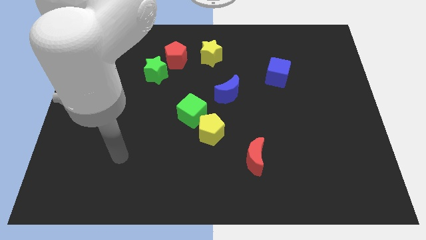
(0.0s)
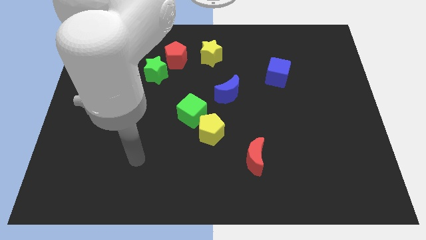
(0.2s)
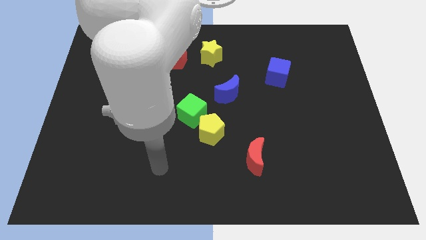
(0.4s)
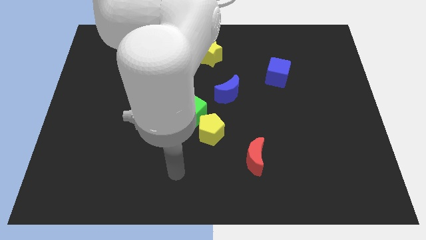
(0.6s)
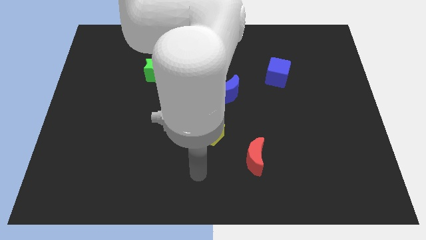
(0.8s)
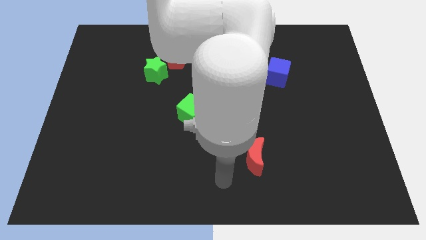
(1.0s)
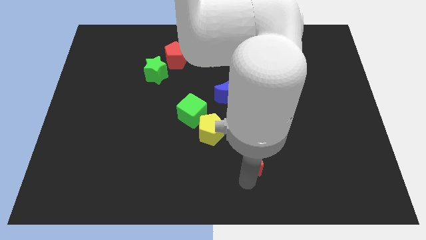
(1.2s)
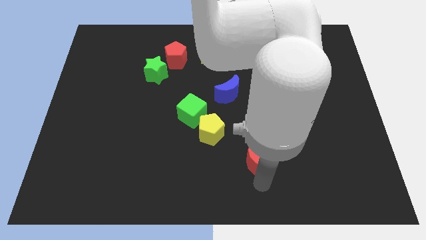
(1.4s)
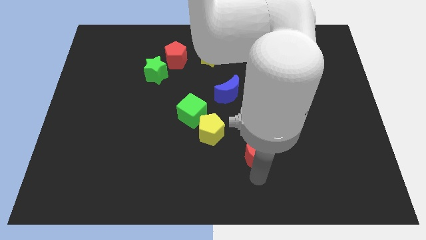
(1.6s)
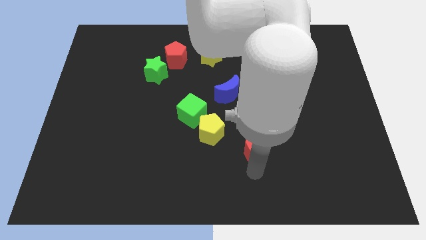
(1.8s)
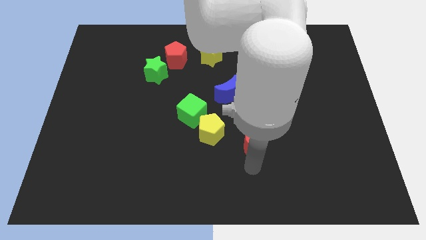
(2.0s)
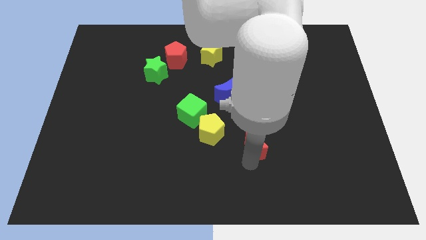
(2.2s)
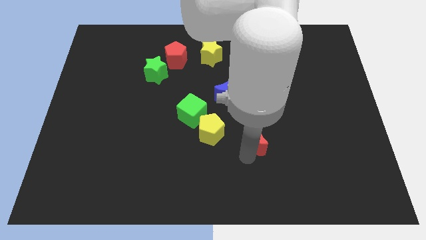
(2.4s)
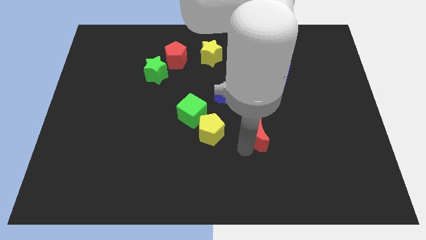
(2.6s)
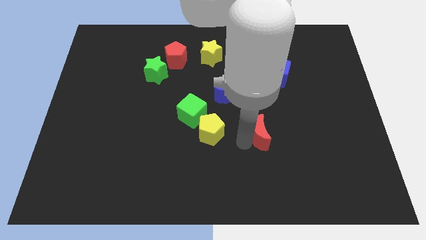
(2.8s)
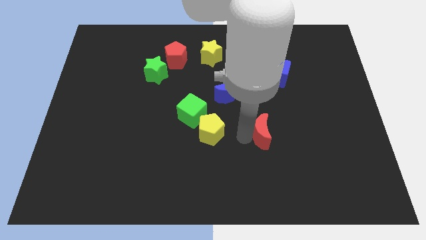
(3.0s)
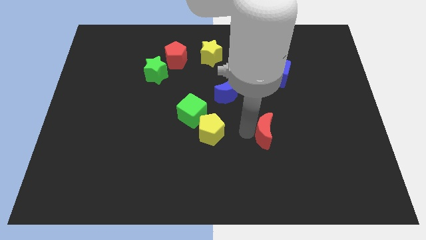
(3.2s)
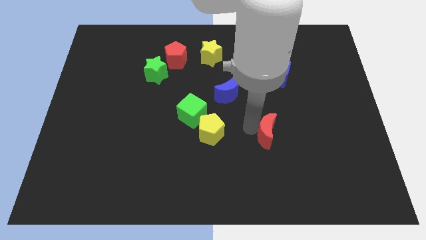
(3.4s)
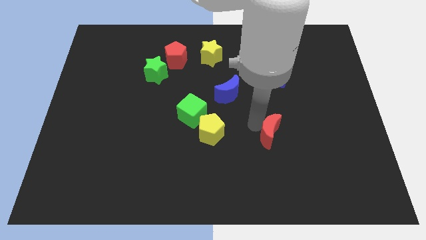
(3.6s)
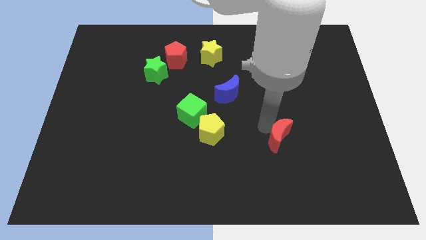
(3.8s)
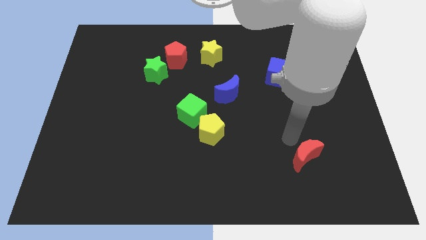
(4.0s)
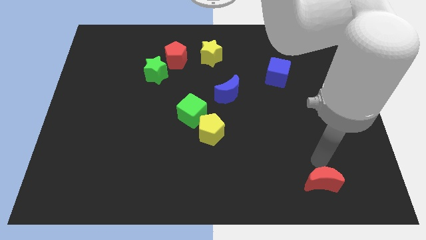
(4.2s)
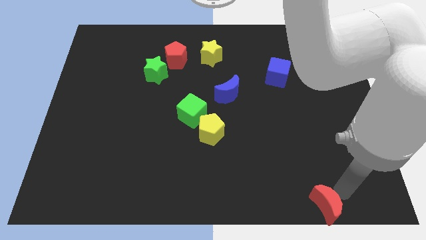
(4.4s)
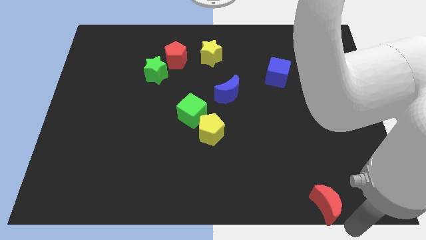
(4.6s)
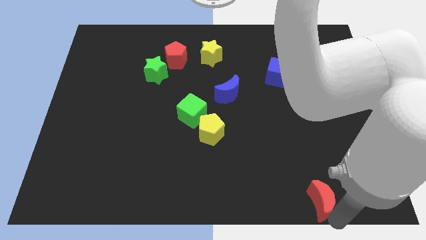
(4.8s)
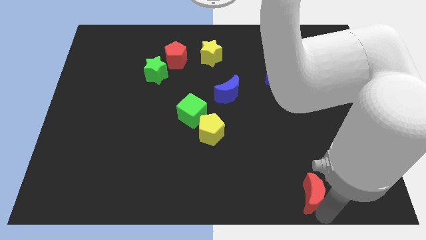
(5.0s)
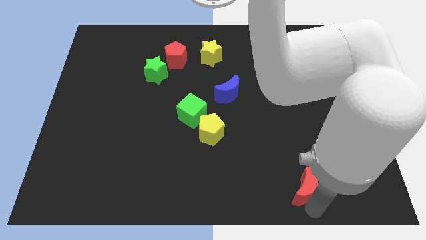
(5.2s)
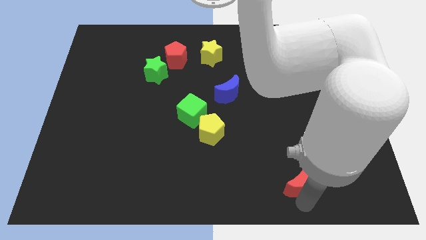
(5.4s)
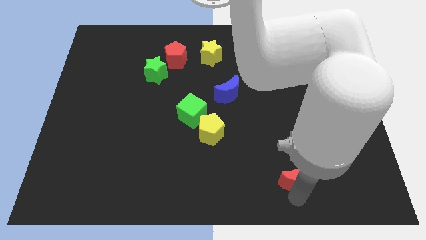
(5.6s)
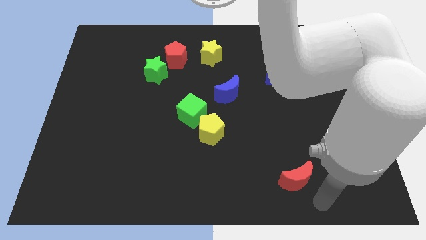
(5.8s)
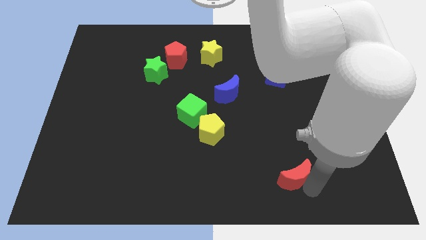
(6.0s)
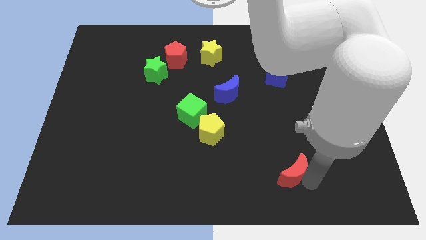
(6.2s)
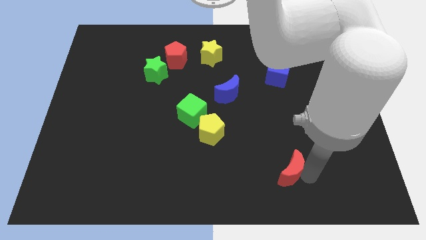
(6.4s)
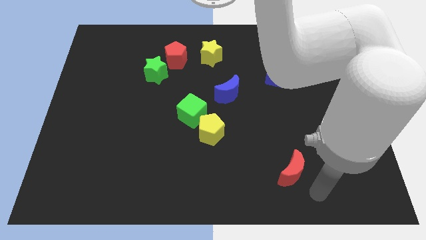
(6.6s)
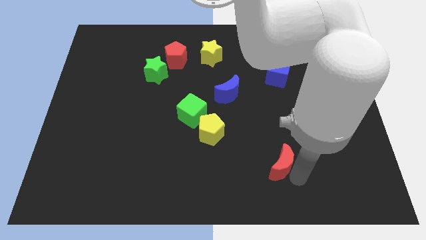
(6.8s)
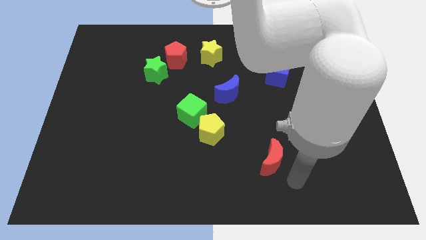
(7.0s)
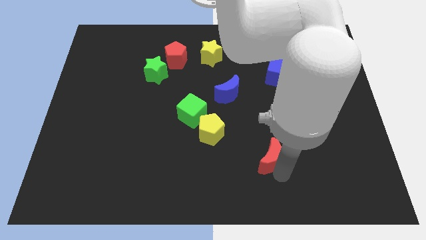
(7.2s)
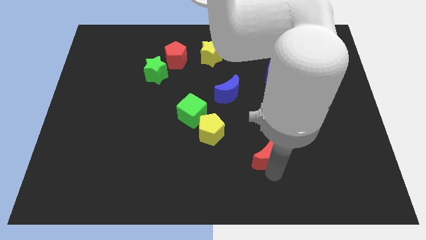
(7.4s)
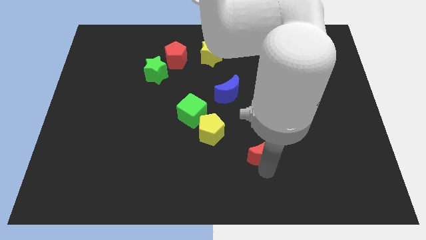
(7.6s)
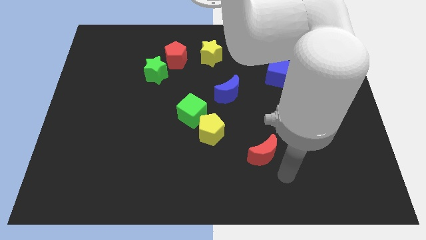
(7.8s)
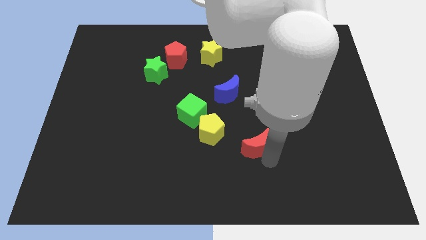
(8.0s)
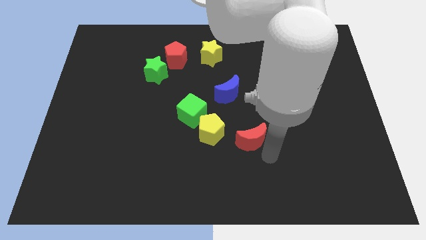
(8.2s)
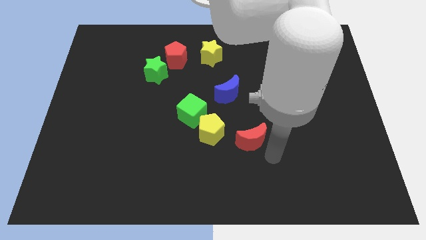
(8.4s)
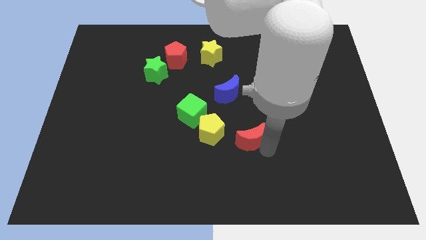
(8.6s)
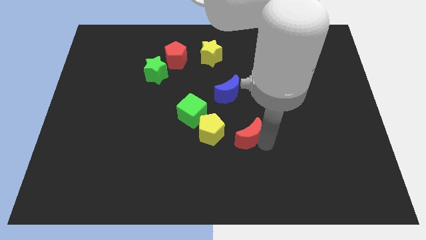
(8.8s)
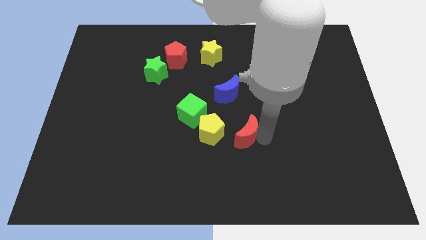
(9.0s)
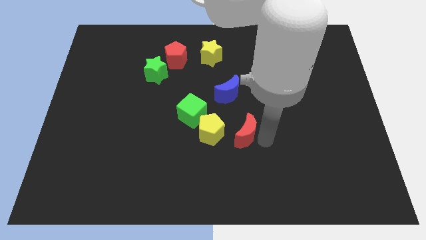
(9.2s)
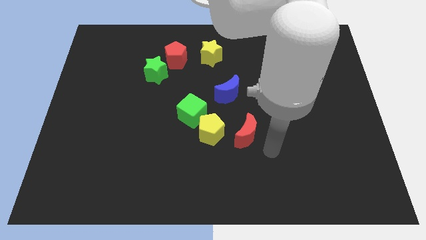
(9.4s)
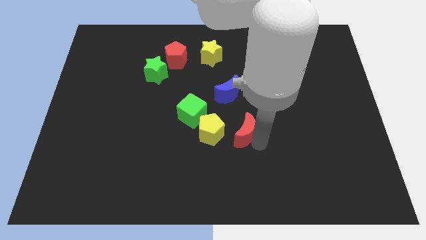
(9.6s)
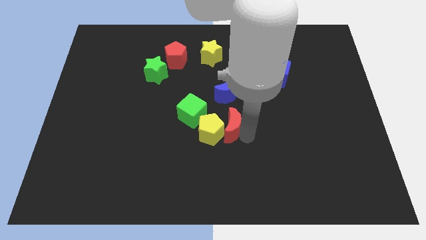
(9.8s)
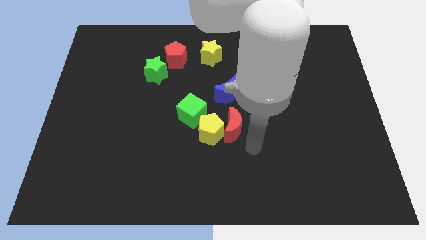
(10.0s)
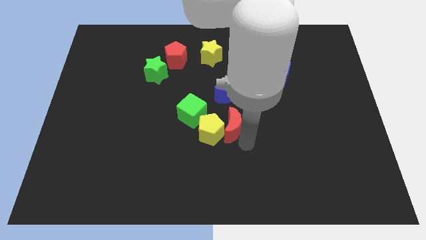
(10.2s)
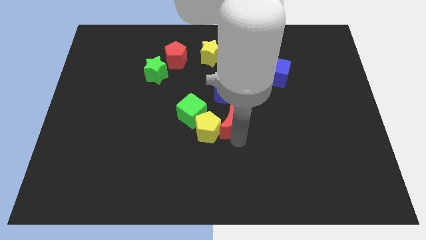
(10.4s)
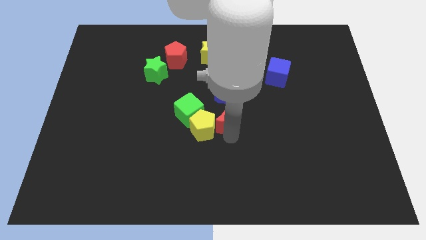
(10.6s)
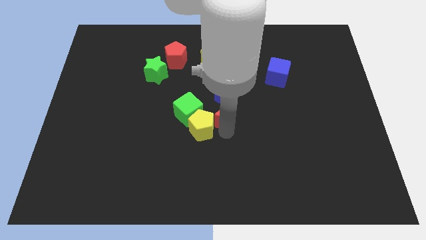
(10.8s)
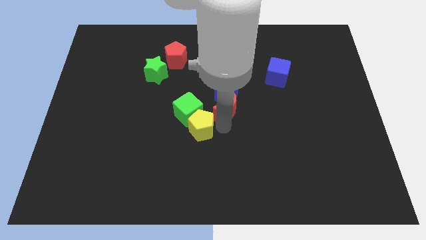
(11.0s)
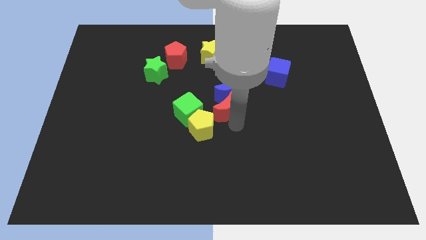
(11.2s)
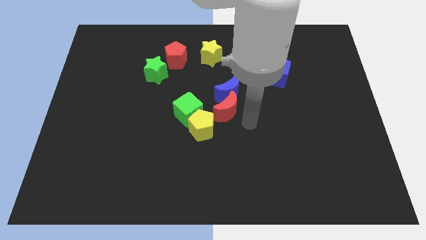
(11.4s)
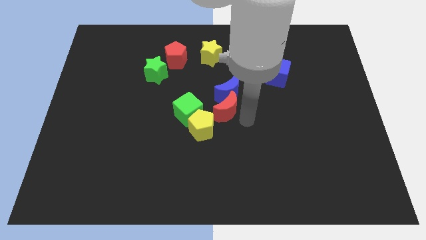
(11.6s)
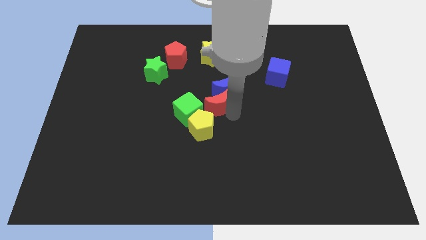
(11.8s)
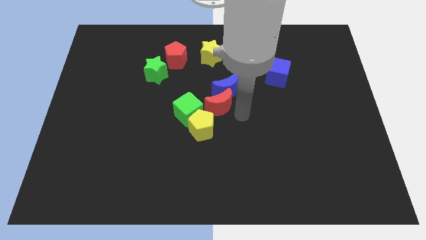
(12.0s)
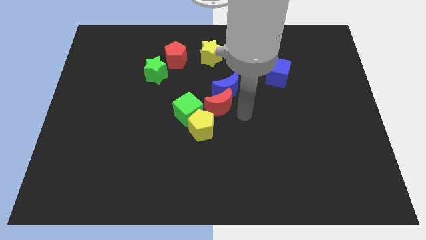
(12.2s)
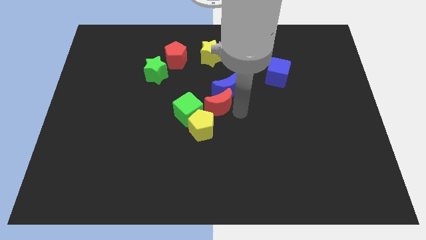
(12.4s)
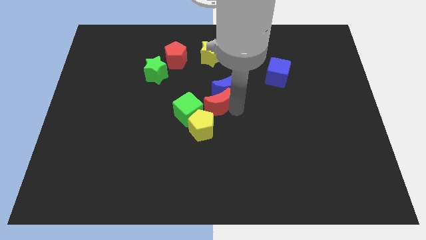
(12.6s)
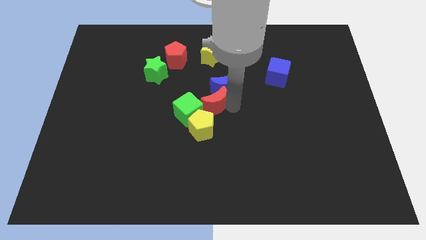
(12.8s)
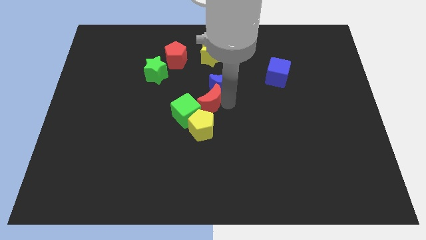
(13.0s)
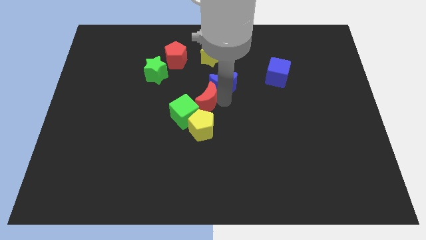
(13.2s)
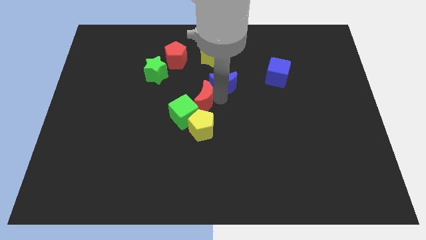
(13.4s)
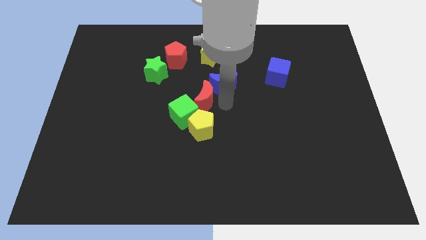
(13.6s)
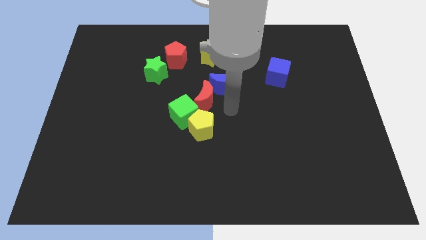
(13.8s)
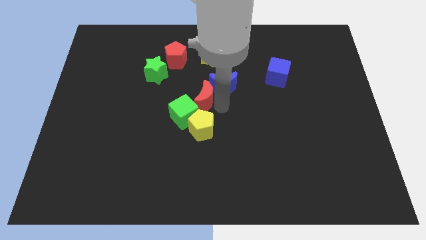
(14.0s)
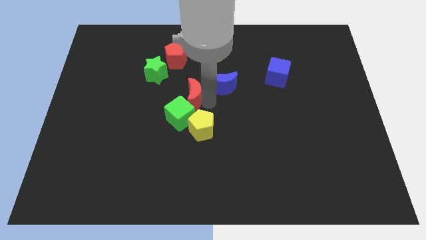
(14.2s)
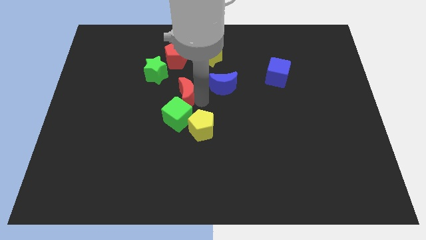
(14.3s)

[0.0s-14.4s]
move the red moon to the bottom side of the red pentagon
